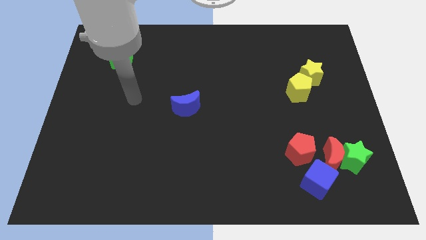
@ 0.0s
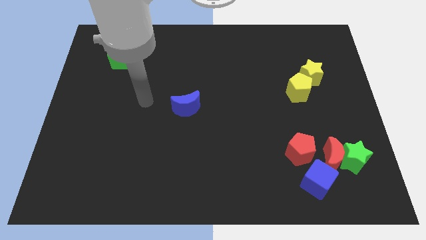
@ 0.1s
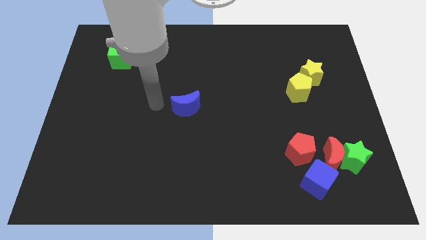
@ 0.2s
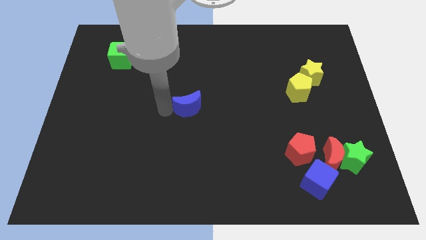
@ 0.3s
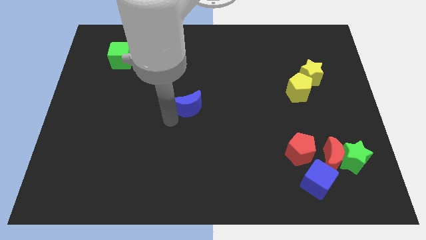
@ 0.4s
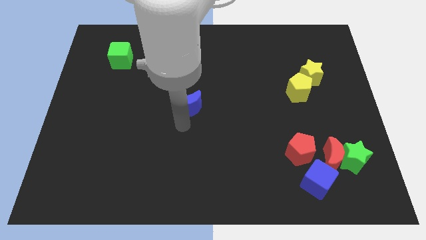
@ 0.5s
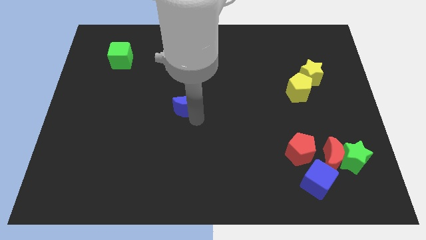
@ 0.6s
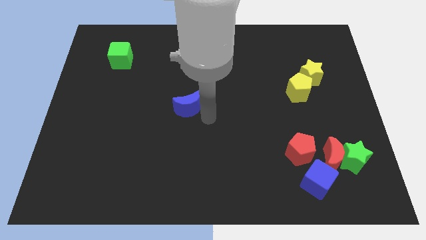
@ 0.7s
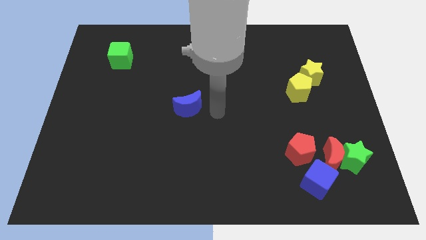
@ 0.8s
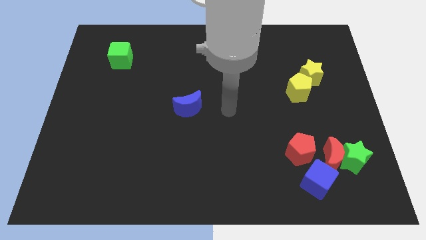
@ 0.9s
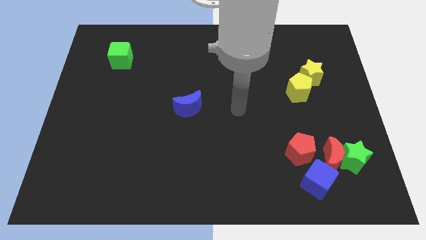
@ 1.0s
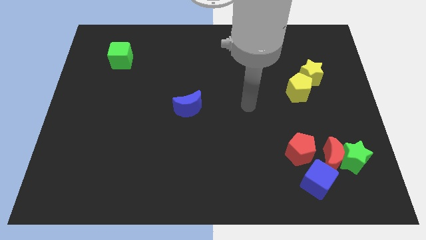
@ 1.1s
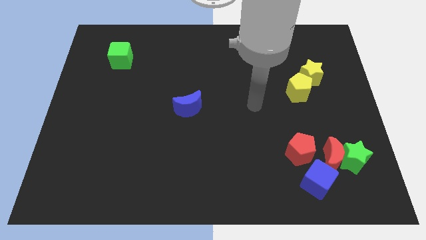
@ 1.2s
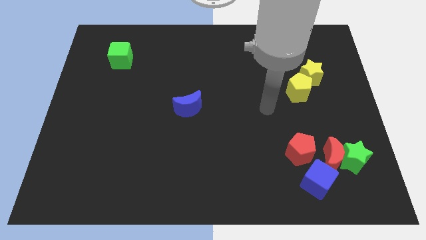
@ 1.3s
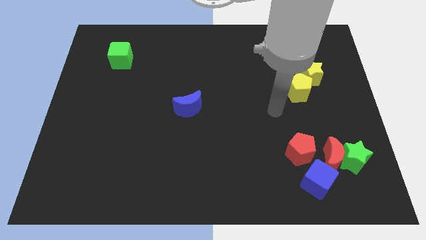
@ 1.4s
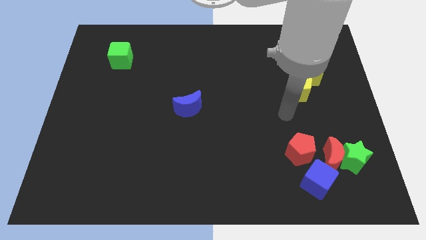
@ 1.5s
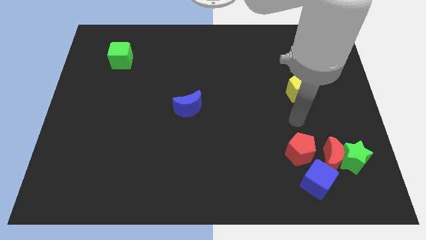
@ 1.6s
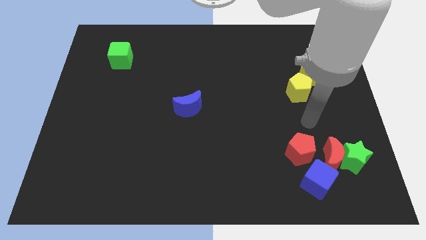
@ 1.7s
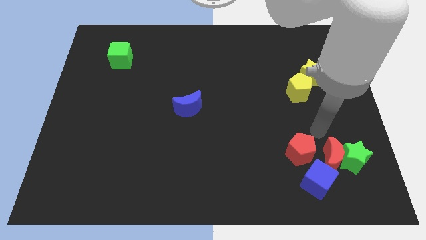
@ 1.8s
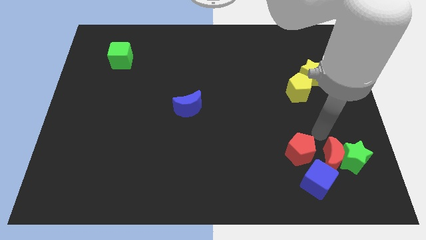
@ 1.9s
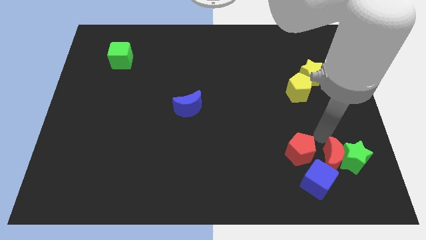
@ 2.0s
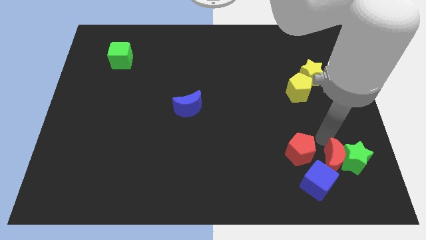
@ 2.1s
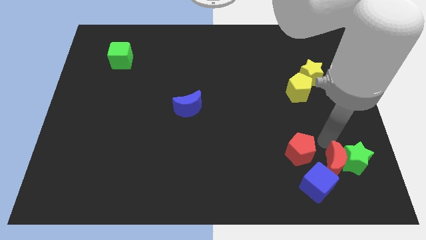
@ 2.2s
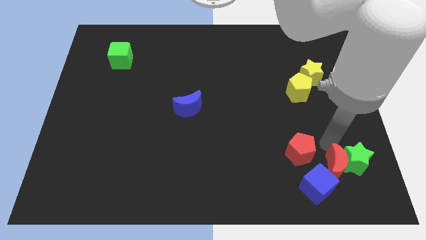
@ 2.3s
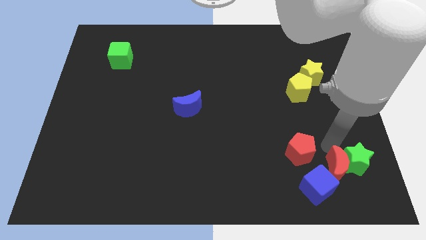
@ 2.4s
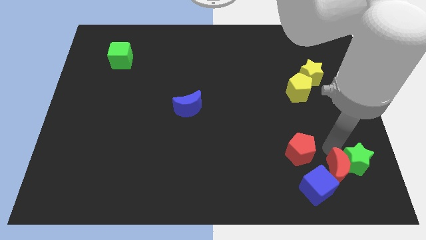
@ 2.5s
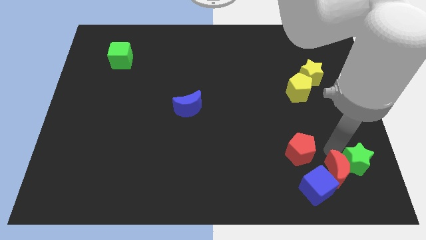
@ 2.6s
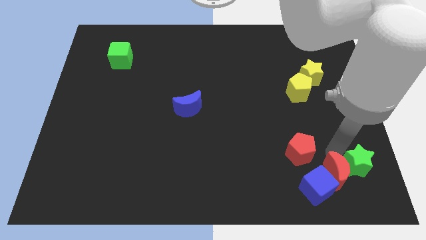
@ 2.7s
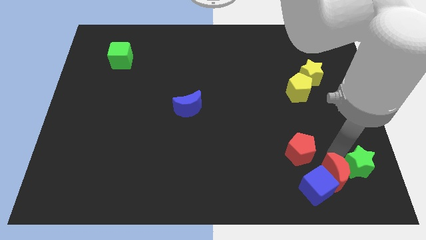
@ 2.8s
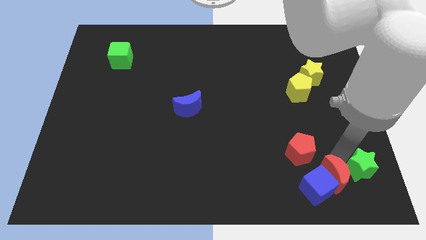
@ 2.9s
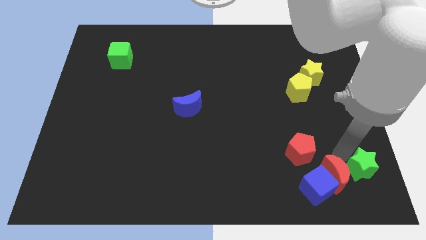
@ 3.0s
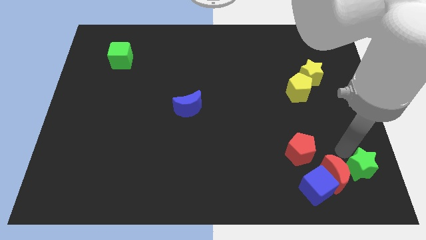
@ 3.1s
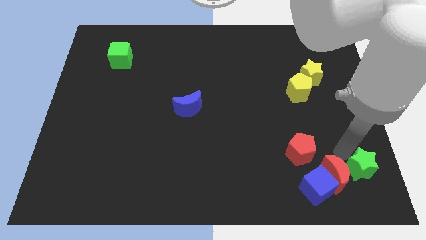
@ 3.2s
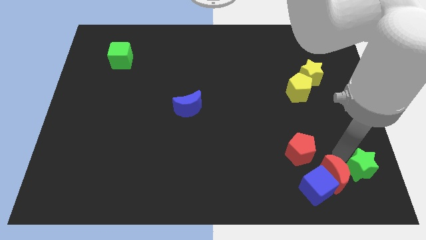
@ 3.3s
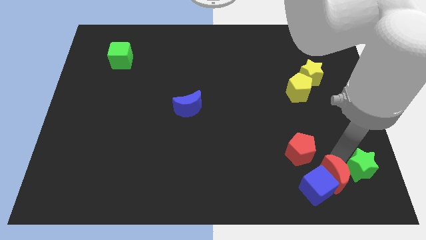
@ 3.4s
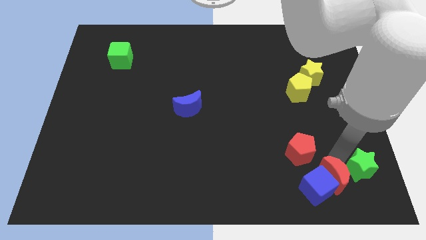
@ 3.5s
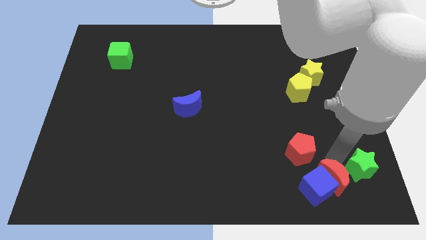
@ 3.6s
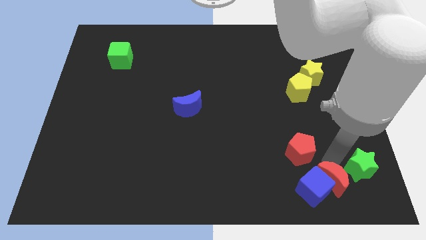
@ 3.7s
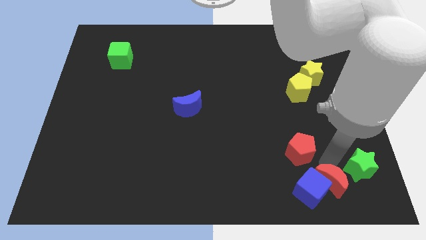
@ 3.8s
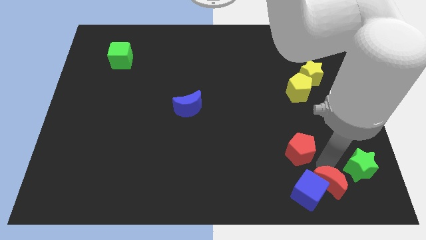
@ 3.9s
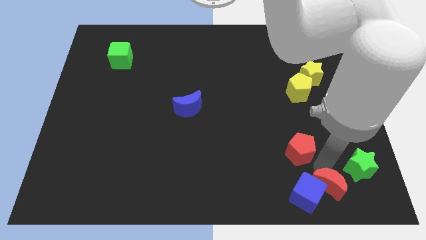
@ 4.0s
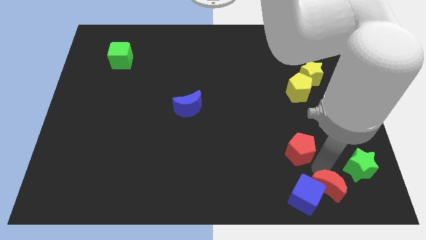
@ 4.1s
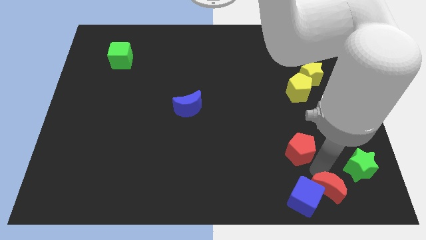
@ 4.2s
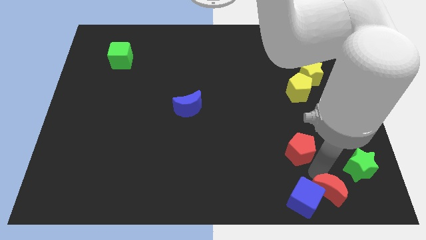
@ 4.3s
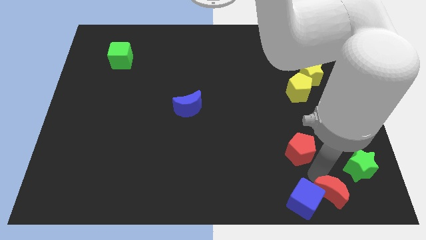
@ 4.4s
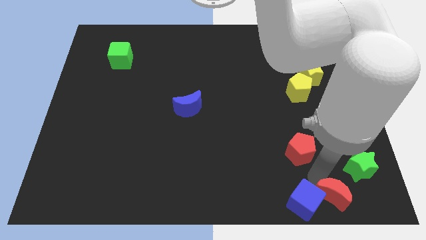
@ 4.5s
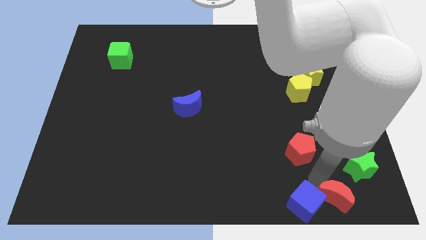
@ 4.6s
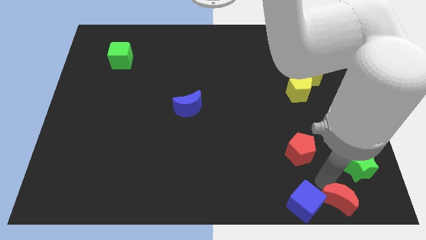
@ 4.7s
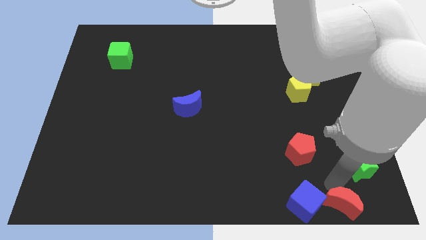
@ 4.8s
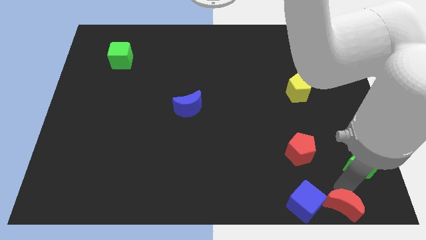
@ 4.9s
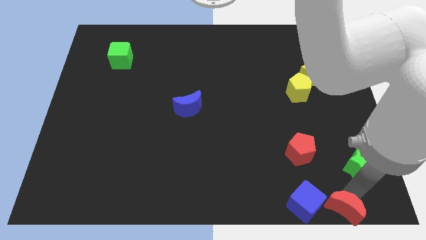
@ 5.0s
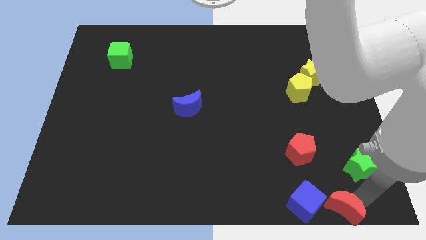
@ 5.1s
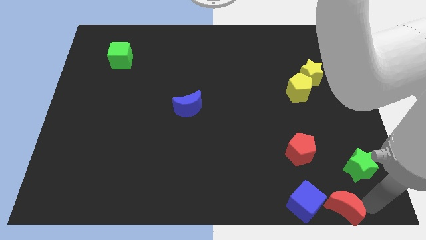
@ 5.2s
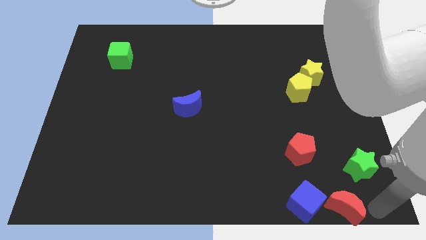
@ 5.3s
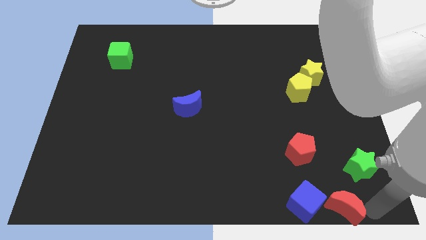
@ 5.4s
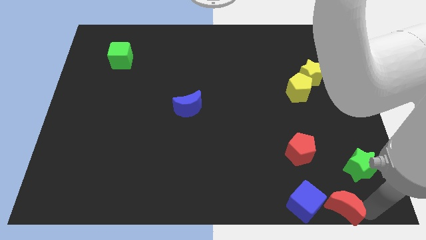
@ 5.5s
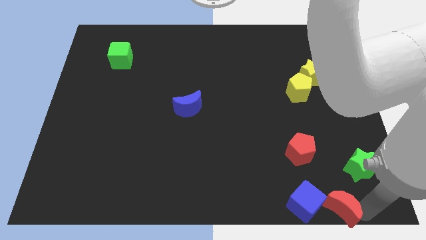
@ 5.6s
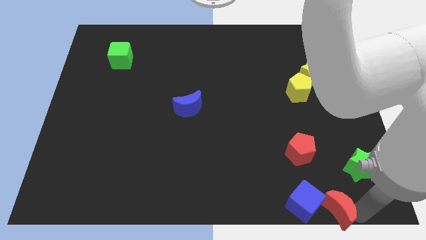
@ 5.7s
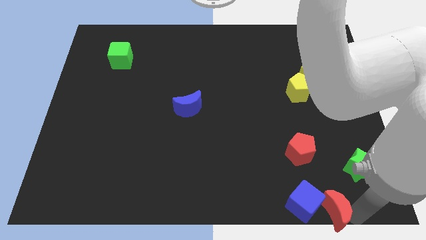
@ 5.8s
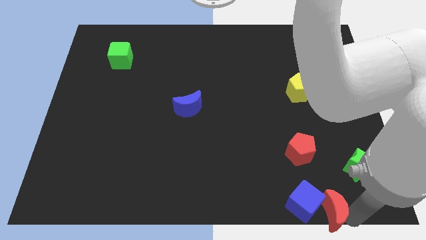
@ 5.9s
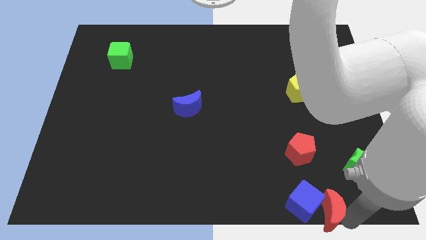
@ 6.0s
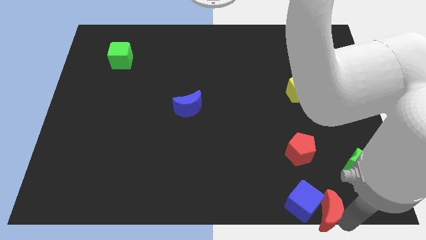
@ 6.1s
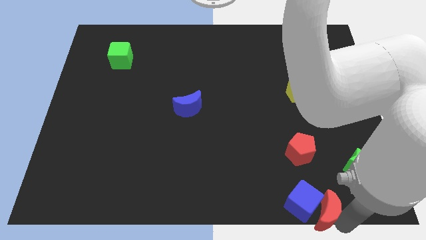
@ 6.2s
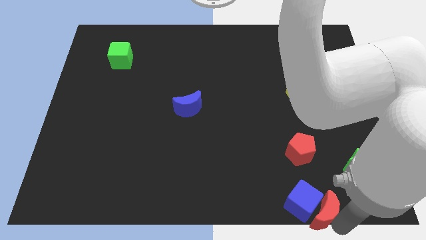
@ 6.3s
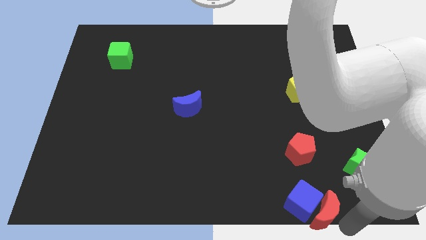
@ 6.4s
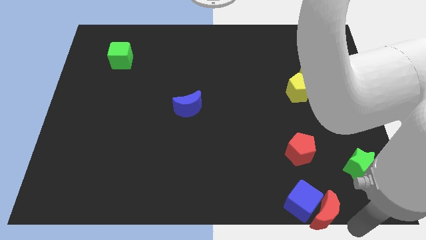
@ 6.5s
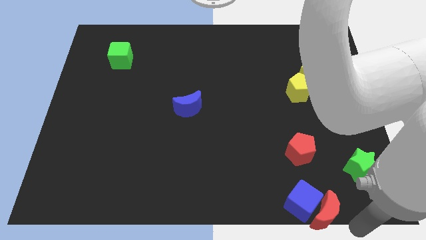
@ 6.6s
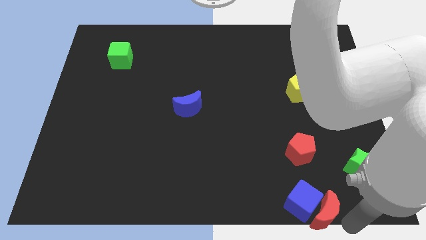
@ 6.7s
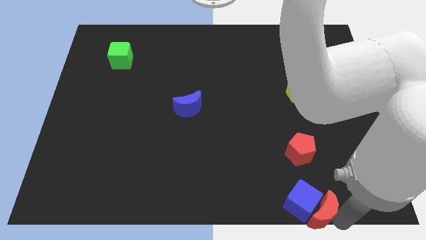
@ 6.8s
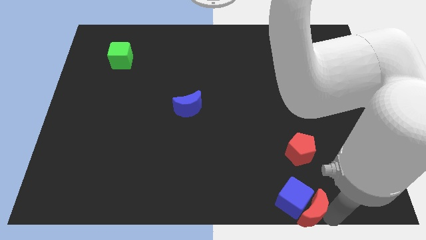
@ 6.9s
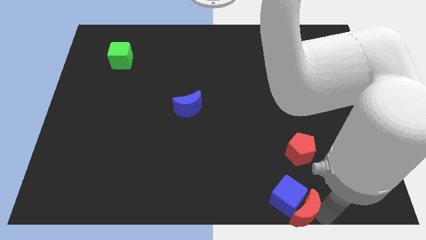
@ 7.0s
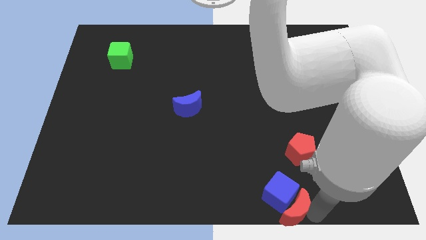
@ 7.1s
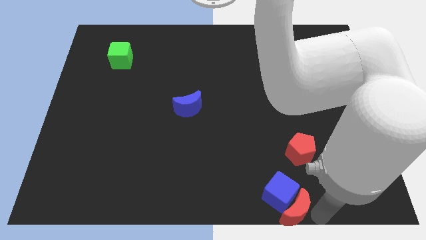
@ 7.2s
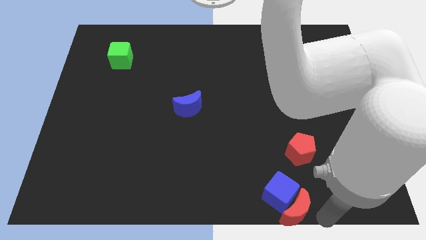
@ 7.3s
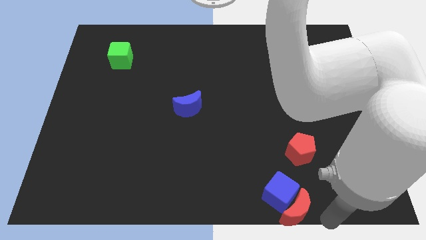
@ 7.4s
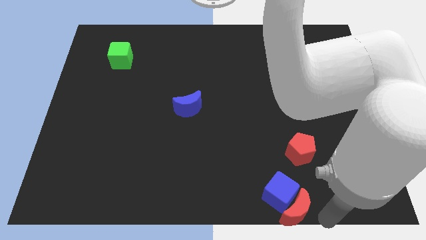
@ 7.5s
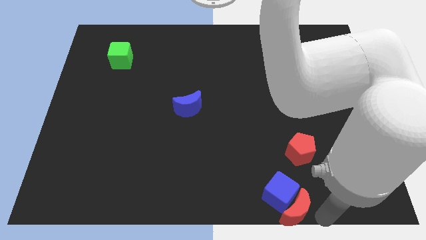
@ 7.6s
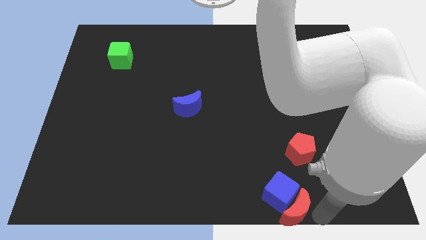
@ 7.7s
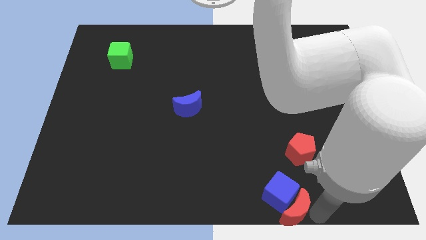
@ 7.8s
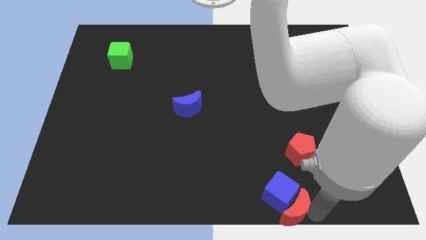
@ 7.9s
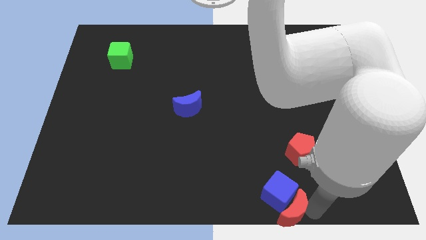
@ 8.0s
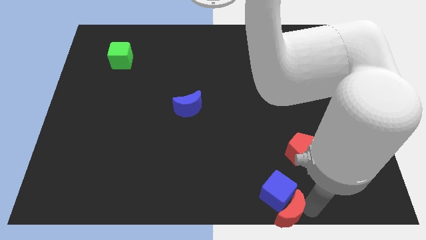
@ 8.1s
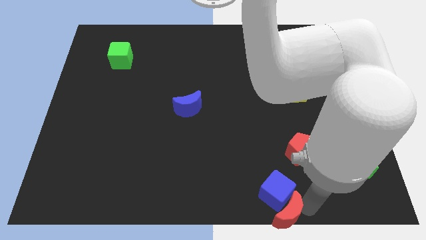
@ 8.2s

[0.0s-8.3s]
slide the red moon to the bottom side
